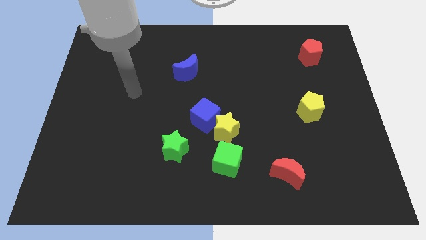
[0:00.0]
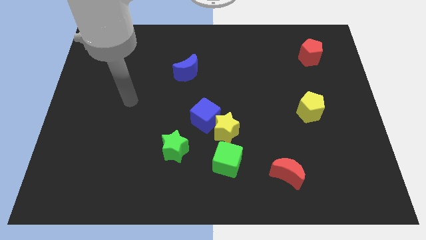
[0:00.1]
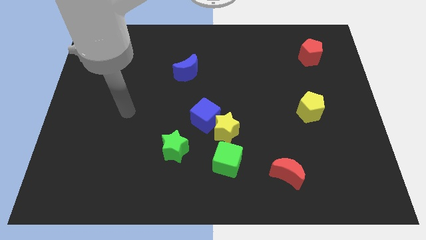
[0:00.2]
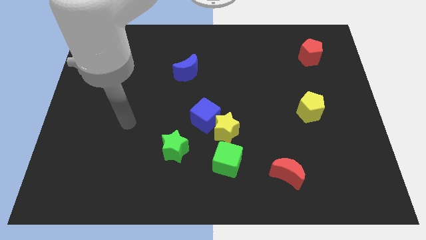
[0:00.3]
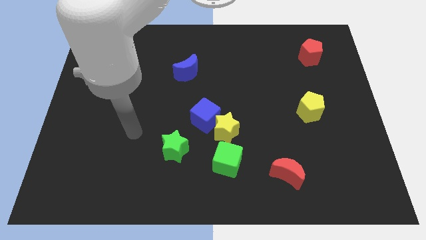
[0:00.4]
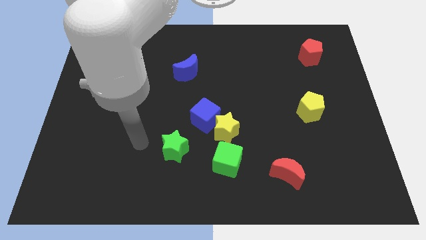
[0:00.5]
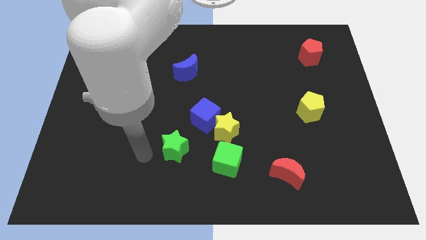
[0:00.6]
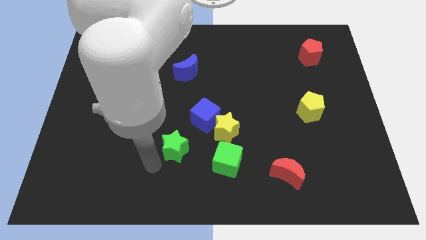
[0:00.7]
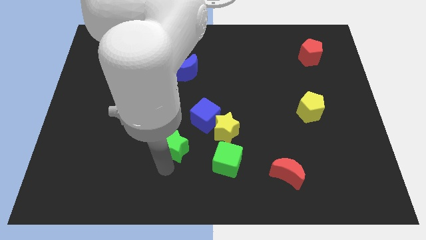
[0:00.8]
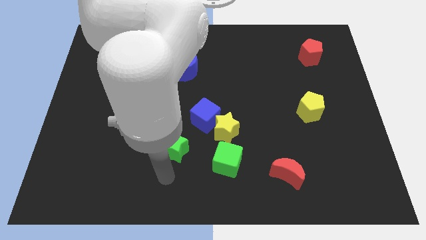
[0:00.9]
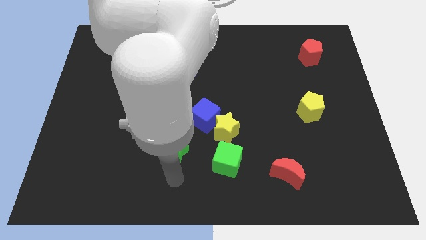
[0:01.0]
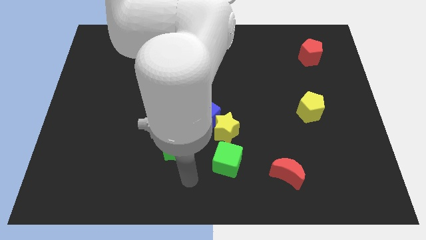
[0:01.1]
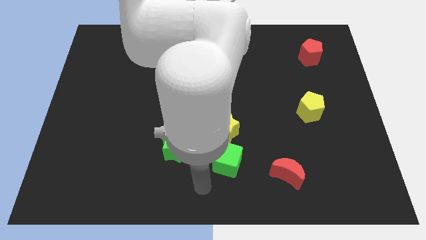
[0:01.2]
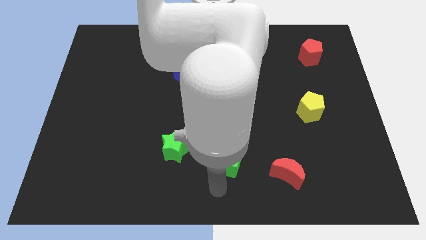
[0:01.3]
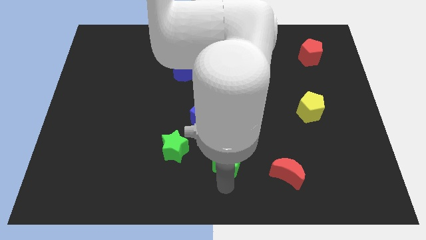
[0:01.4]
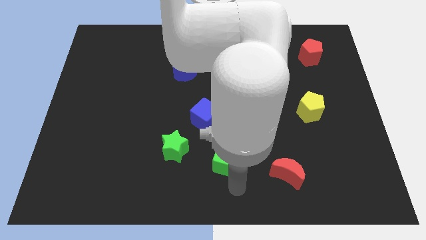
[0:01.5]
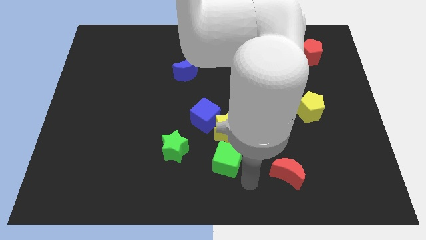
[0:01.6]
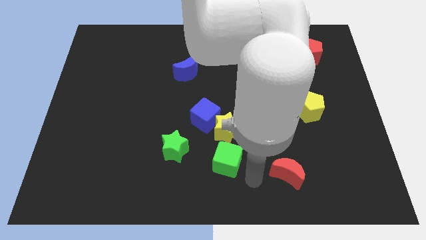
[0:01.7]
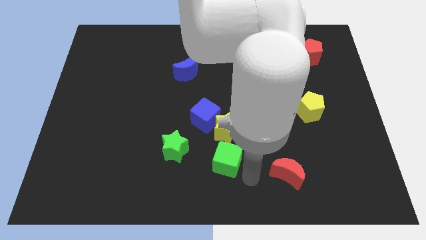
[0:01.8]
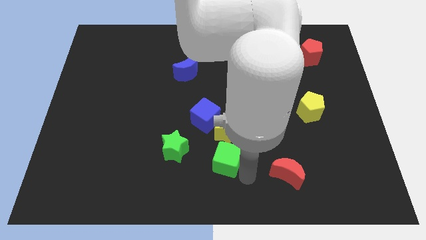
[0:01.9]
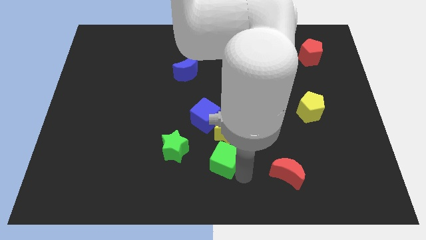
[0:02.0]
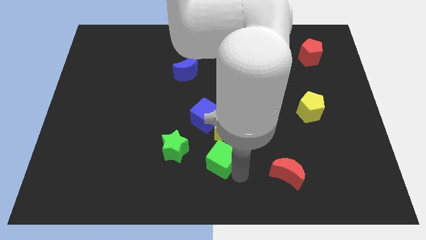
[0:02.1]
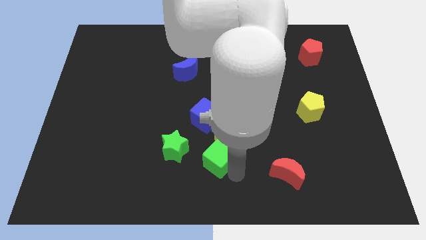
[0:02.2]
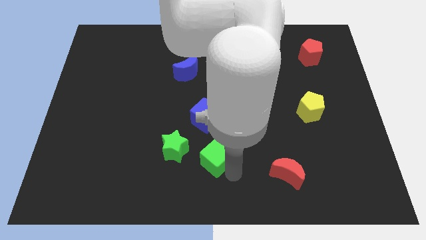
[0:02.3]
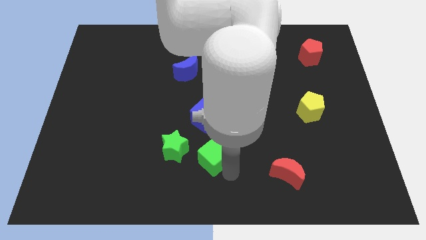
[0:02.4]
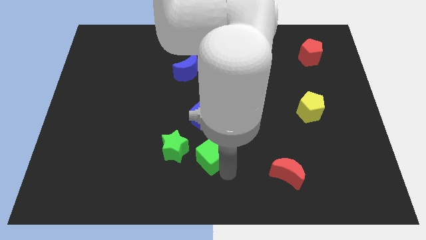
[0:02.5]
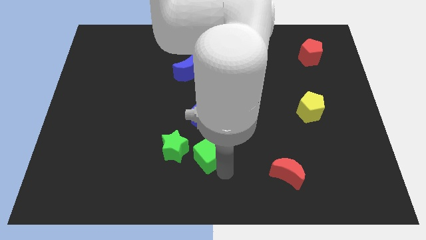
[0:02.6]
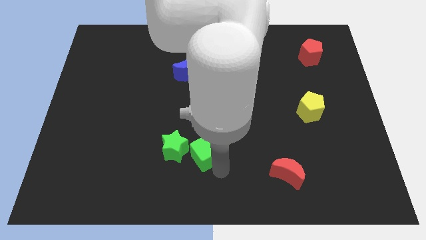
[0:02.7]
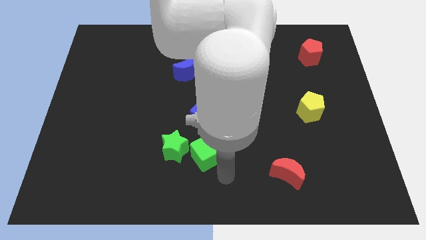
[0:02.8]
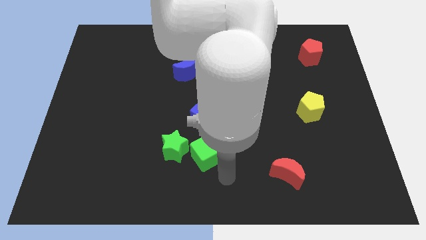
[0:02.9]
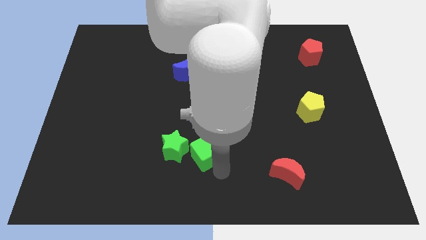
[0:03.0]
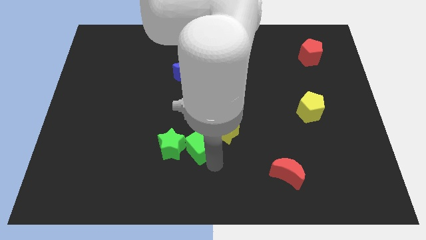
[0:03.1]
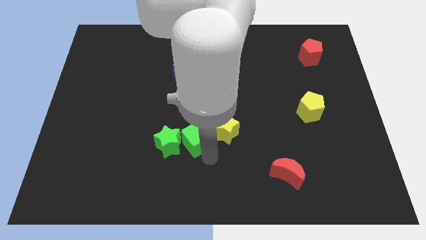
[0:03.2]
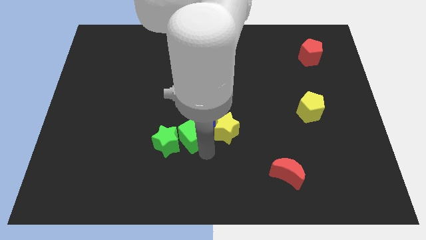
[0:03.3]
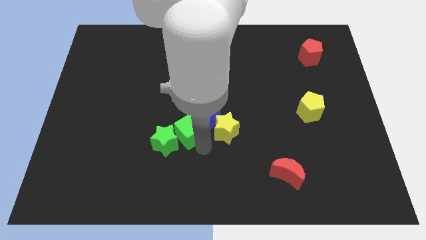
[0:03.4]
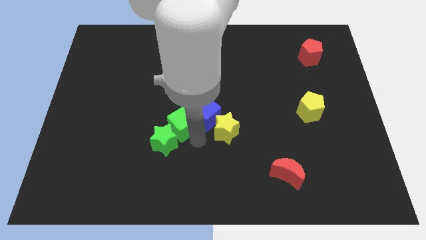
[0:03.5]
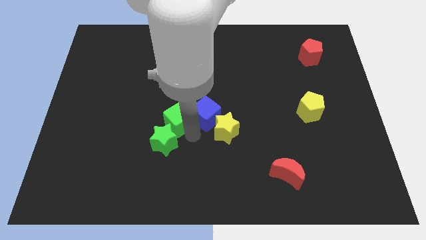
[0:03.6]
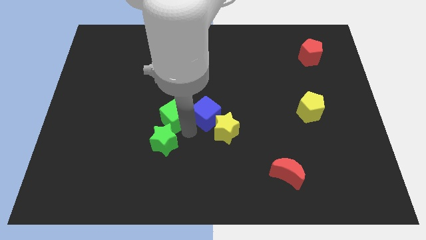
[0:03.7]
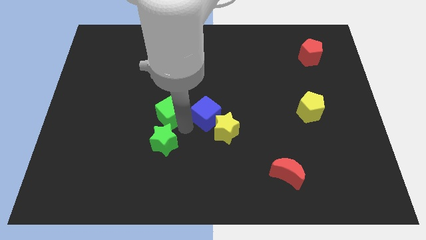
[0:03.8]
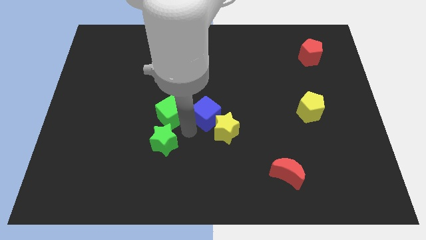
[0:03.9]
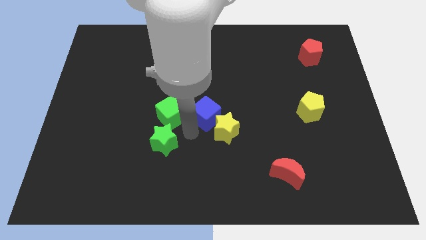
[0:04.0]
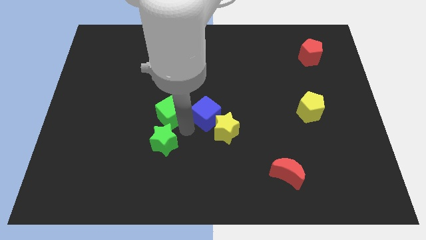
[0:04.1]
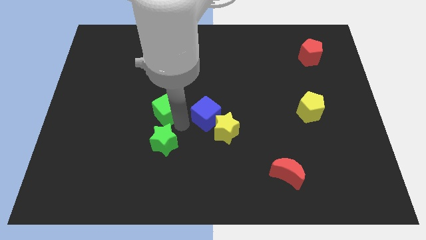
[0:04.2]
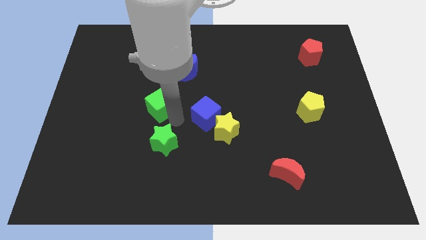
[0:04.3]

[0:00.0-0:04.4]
slide the green cube upwards and left

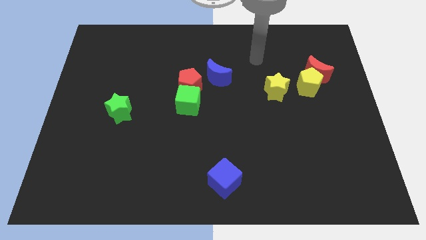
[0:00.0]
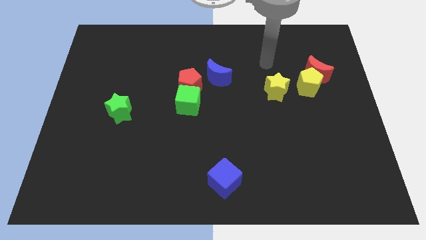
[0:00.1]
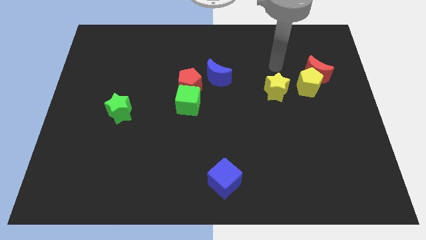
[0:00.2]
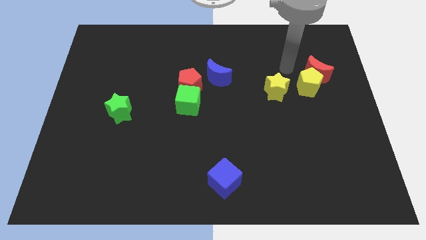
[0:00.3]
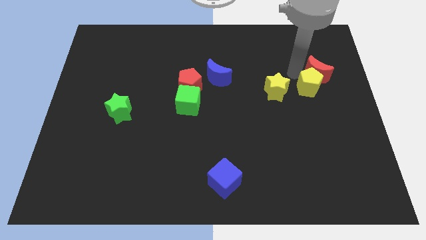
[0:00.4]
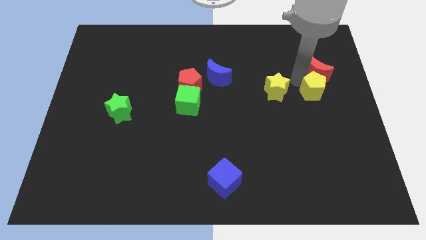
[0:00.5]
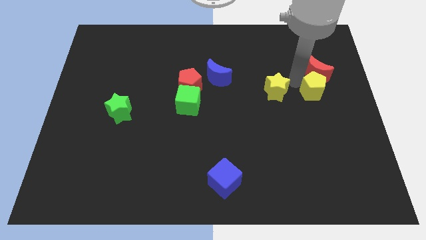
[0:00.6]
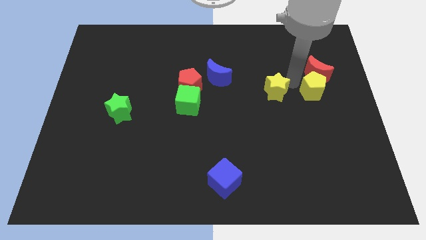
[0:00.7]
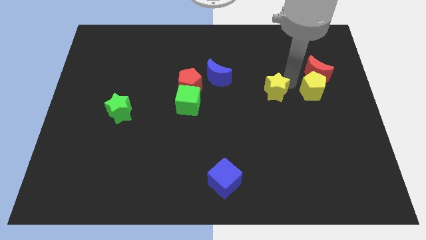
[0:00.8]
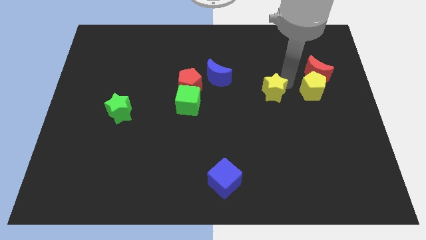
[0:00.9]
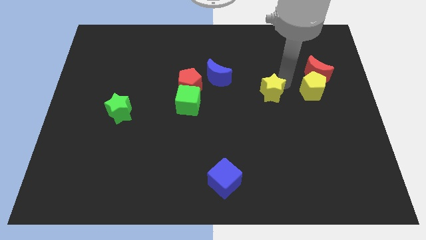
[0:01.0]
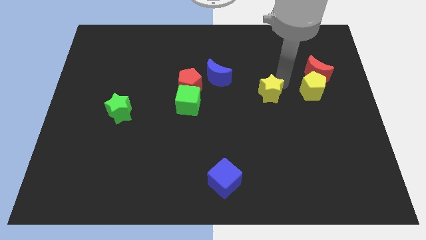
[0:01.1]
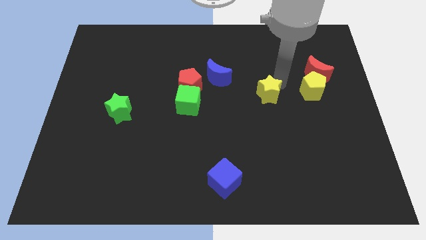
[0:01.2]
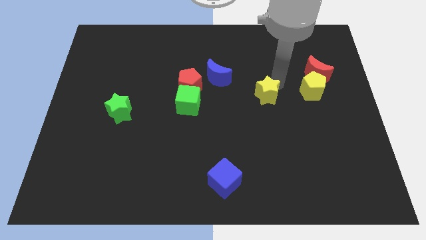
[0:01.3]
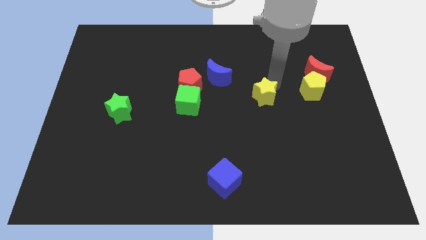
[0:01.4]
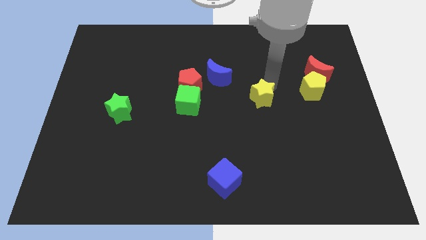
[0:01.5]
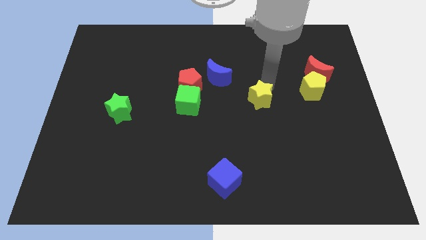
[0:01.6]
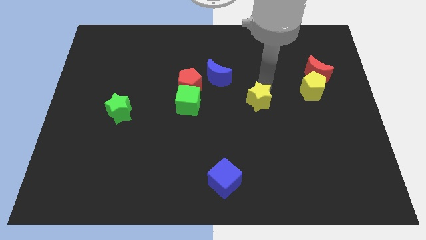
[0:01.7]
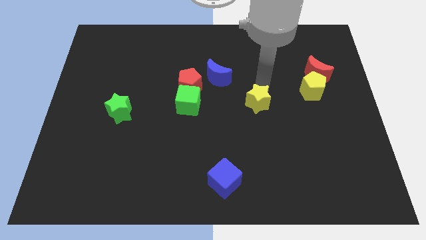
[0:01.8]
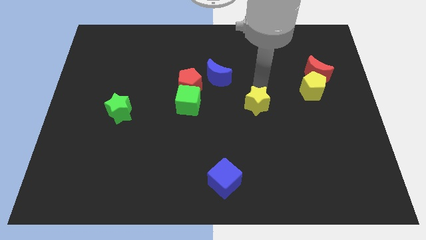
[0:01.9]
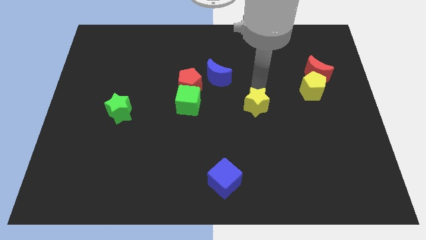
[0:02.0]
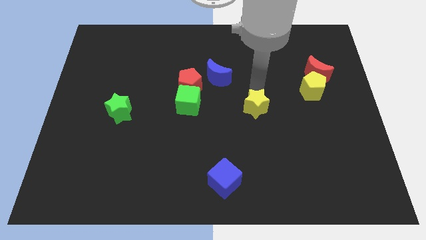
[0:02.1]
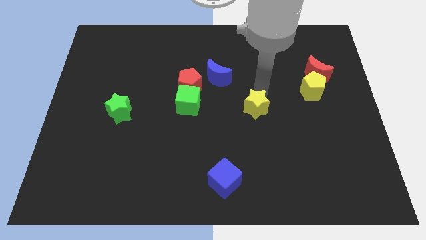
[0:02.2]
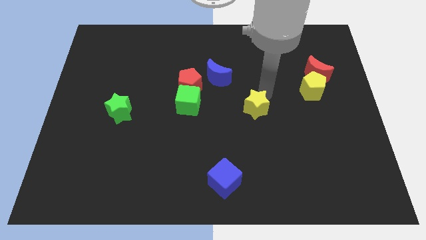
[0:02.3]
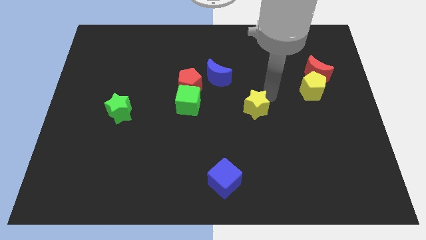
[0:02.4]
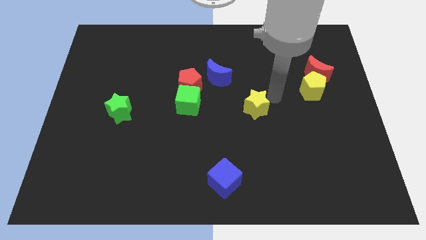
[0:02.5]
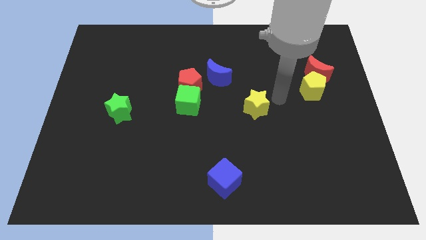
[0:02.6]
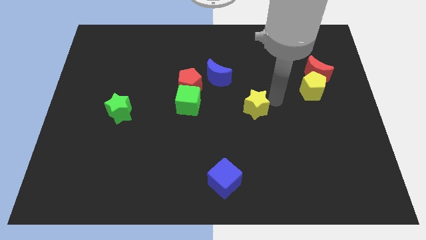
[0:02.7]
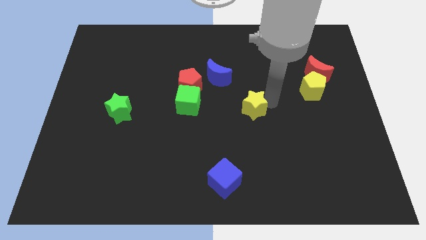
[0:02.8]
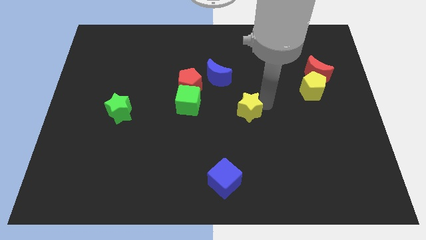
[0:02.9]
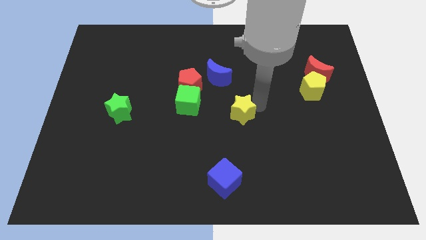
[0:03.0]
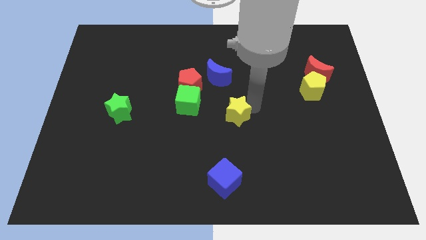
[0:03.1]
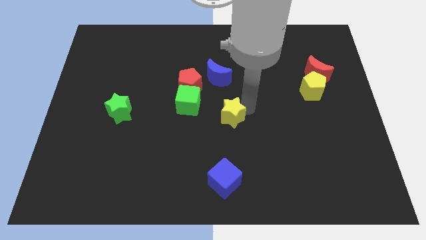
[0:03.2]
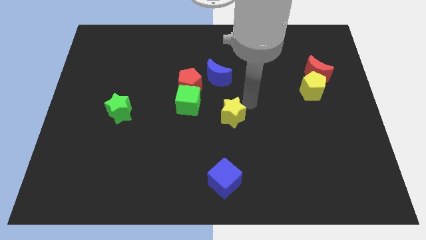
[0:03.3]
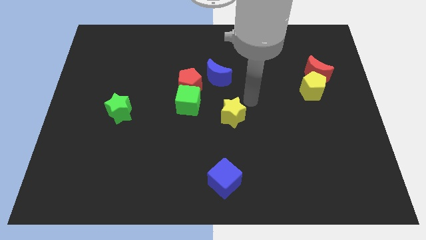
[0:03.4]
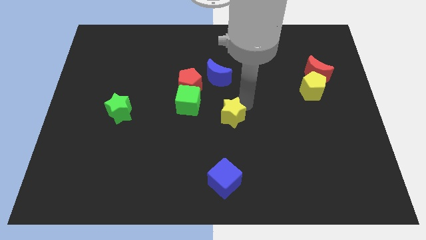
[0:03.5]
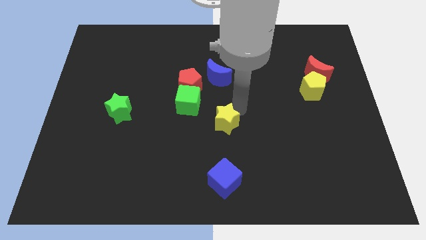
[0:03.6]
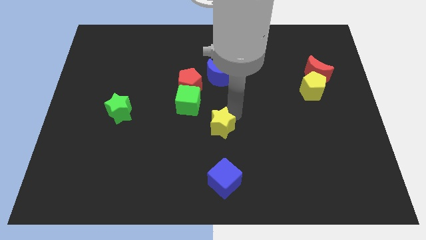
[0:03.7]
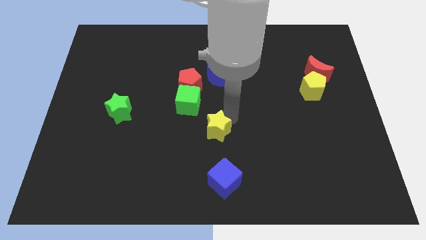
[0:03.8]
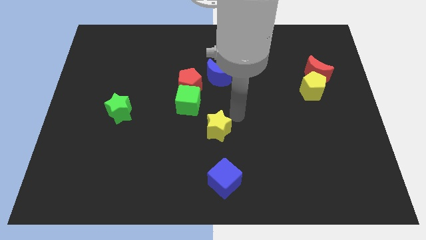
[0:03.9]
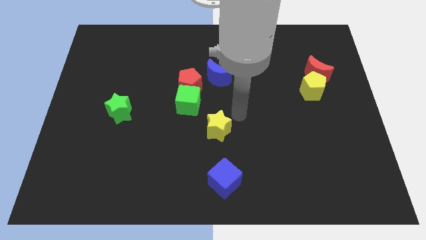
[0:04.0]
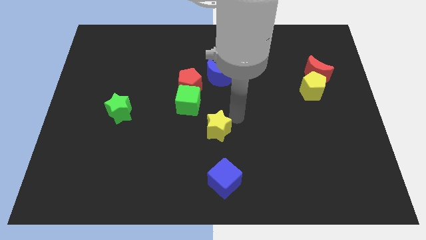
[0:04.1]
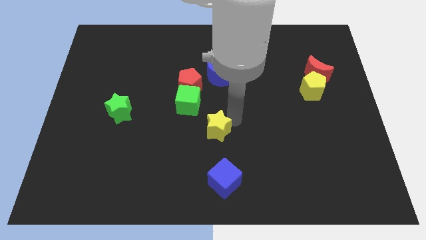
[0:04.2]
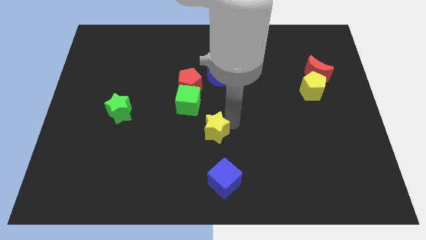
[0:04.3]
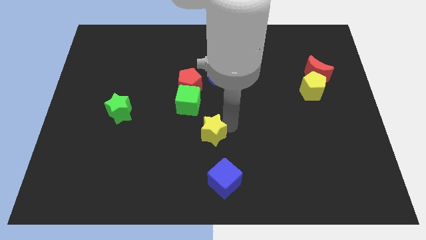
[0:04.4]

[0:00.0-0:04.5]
move the yellow star downwards and then left
